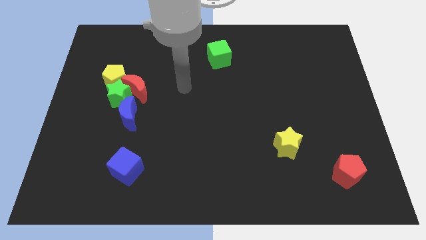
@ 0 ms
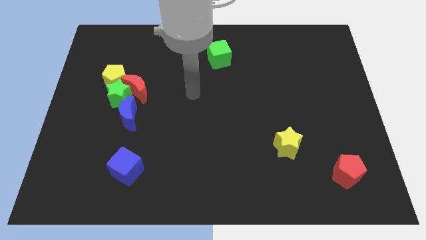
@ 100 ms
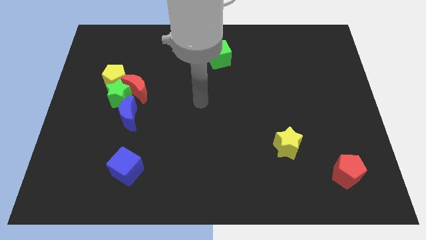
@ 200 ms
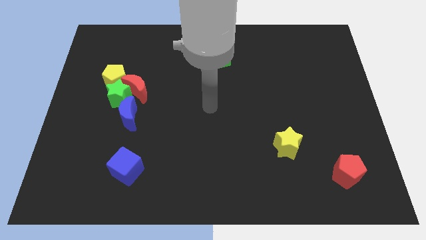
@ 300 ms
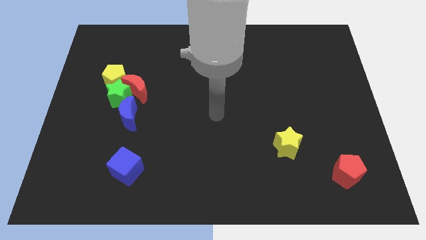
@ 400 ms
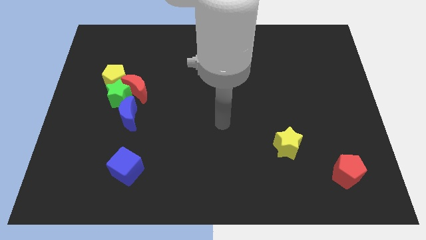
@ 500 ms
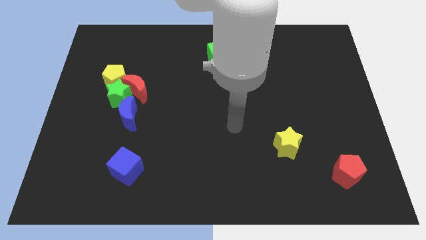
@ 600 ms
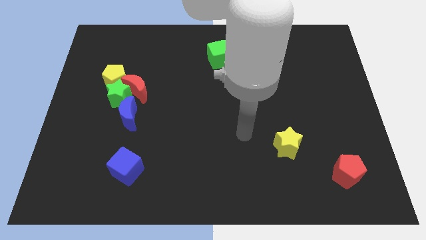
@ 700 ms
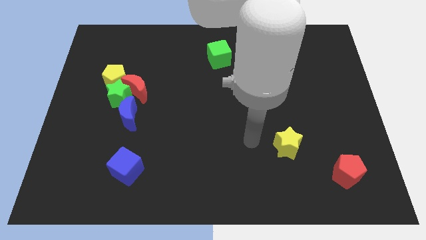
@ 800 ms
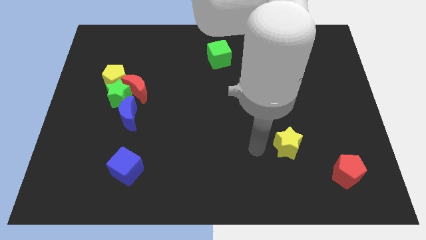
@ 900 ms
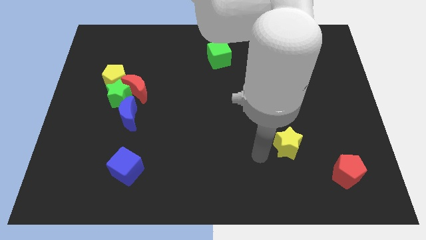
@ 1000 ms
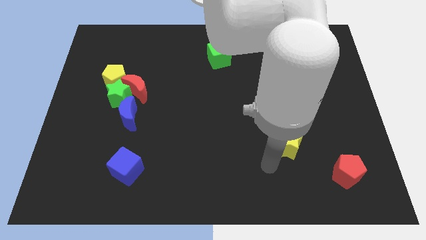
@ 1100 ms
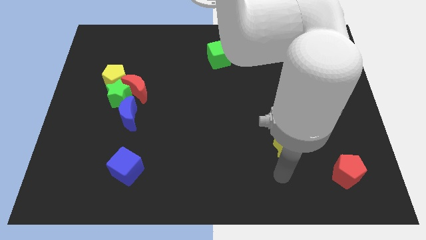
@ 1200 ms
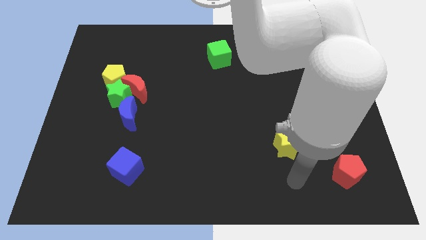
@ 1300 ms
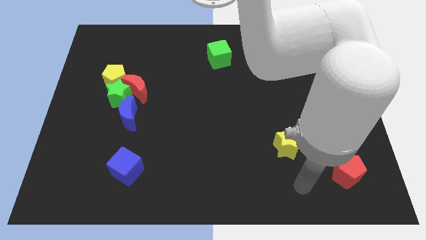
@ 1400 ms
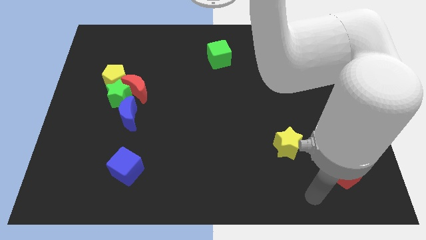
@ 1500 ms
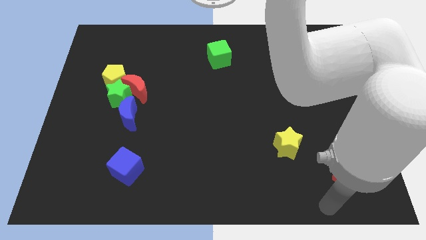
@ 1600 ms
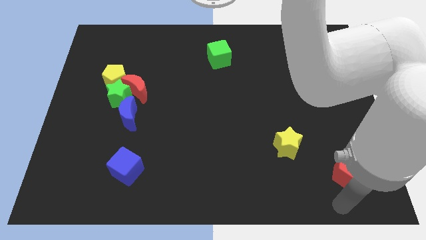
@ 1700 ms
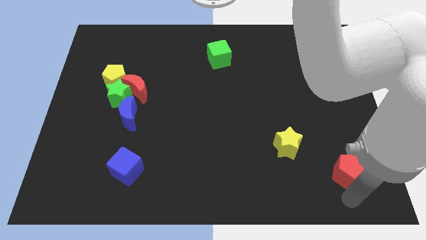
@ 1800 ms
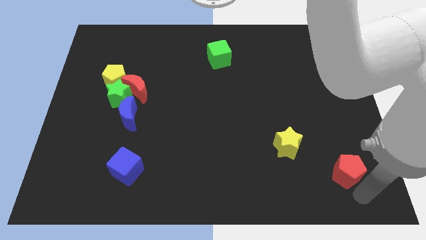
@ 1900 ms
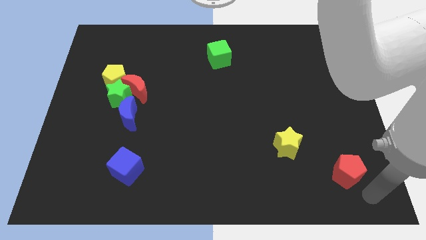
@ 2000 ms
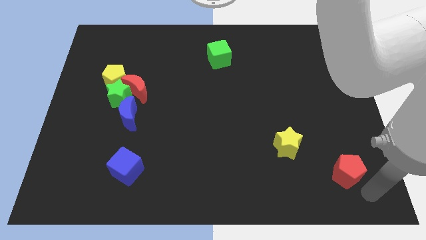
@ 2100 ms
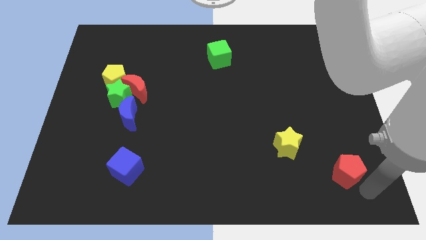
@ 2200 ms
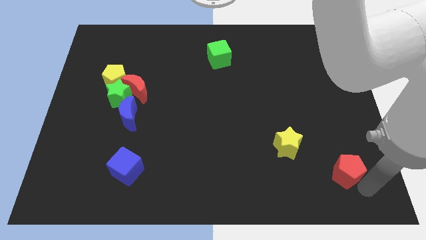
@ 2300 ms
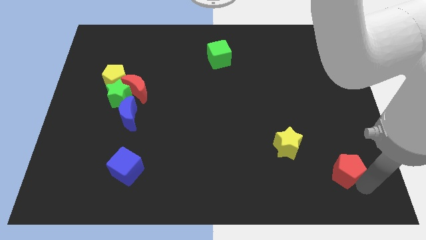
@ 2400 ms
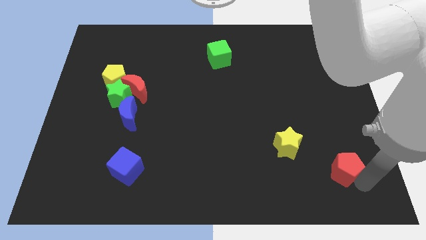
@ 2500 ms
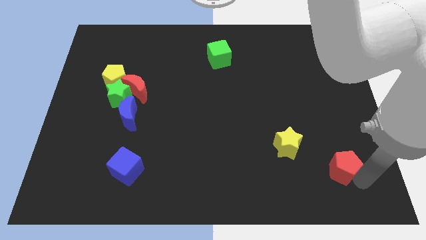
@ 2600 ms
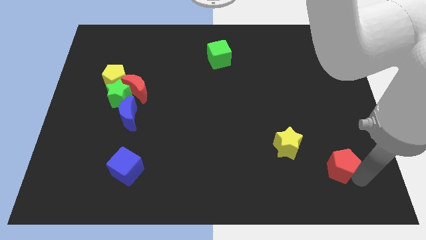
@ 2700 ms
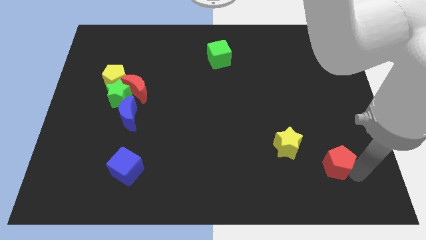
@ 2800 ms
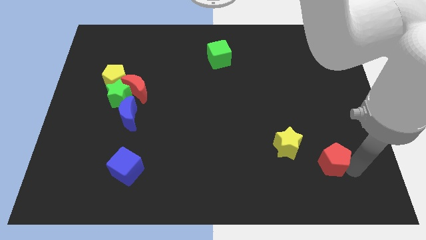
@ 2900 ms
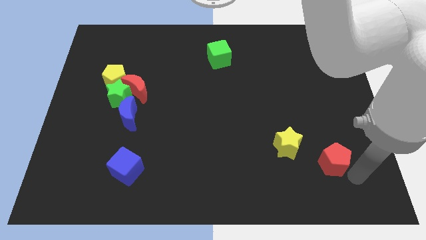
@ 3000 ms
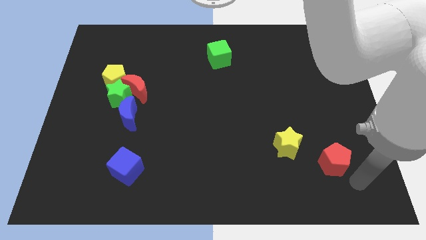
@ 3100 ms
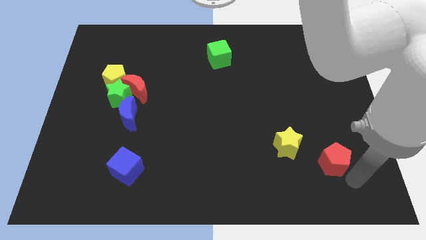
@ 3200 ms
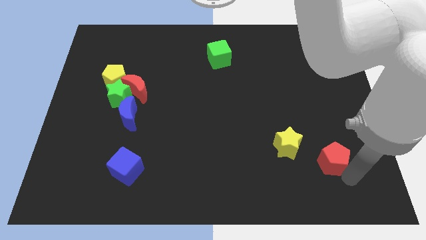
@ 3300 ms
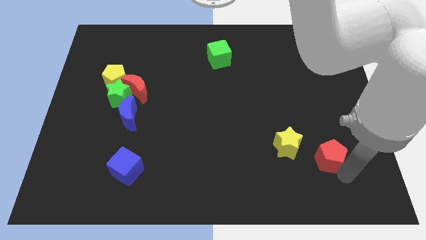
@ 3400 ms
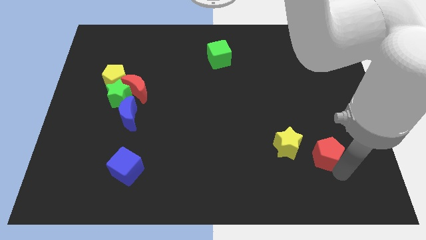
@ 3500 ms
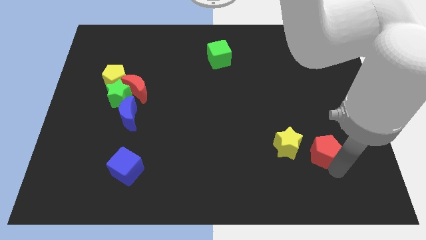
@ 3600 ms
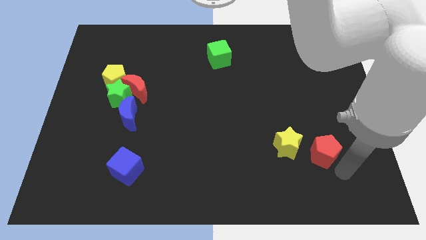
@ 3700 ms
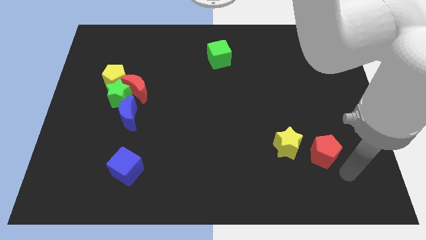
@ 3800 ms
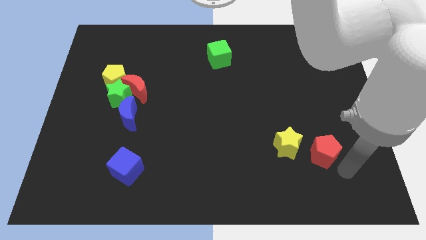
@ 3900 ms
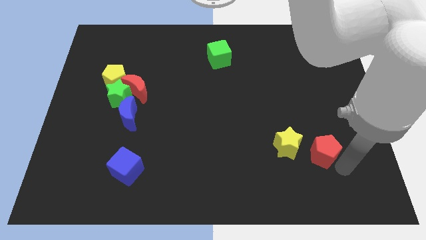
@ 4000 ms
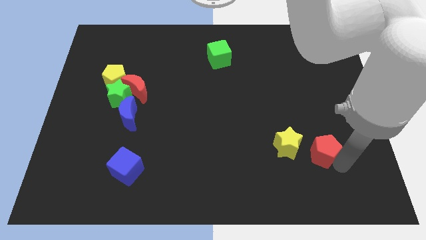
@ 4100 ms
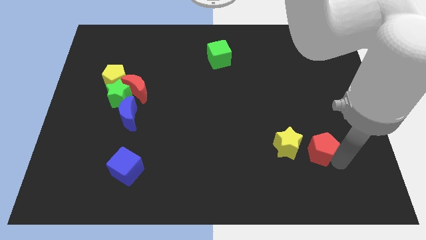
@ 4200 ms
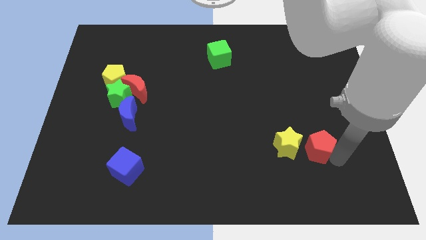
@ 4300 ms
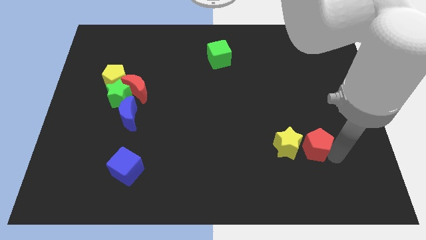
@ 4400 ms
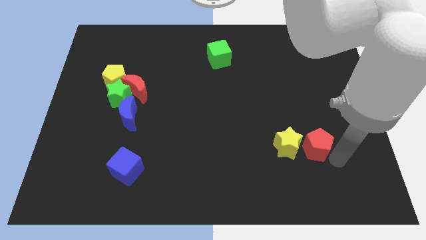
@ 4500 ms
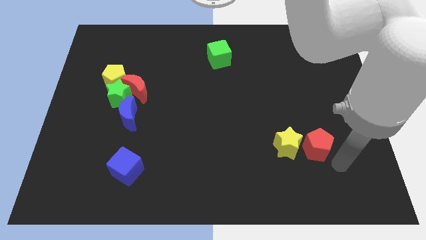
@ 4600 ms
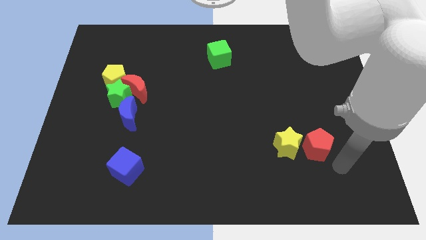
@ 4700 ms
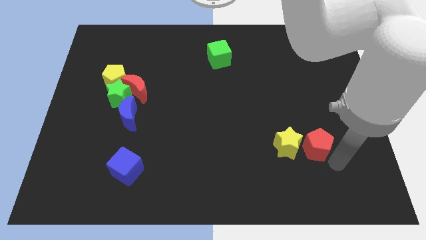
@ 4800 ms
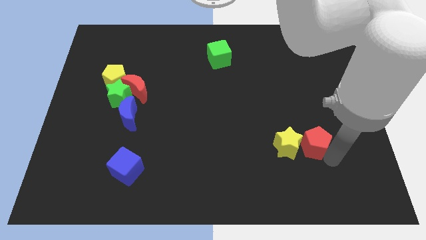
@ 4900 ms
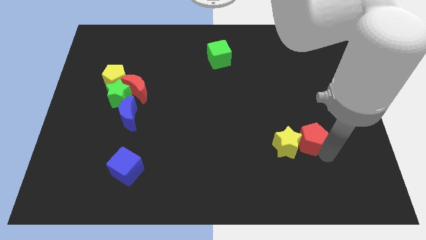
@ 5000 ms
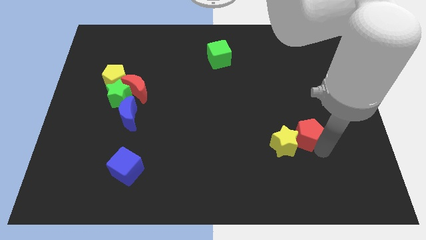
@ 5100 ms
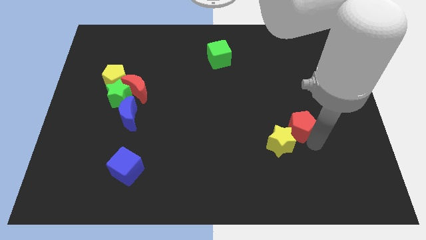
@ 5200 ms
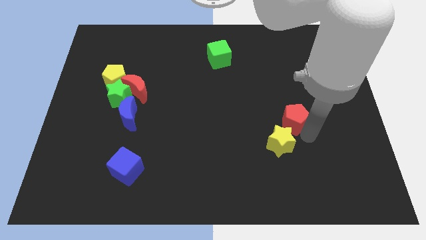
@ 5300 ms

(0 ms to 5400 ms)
slide the red pentagon above the yellow star

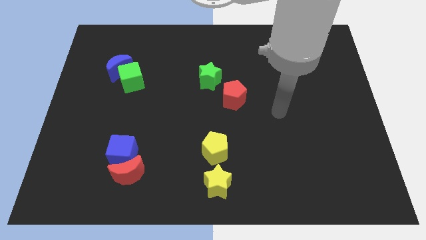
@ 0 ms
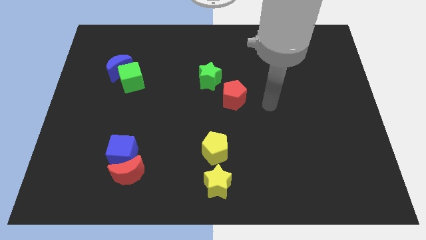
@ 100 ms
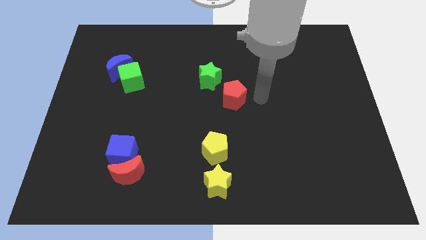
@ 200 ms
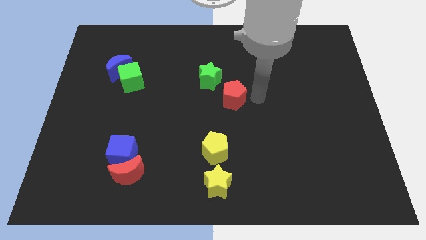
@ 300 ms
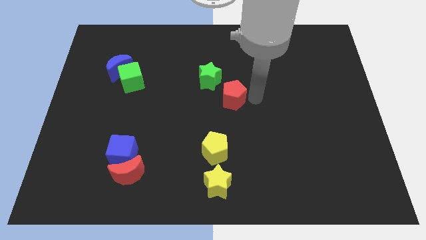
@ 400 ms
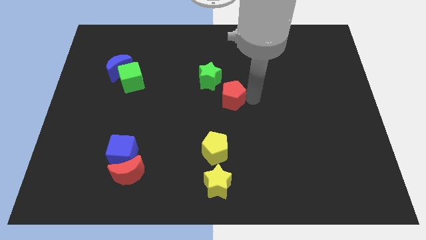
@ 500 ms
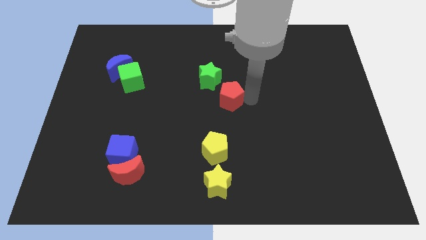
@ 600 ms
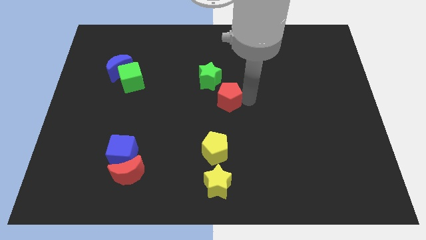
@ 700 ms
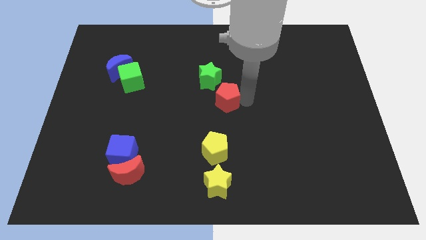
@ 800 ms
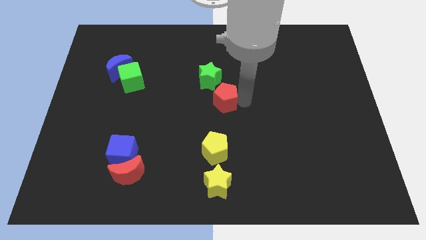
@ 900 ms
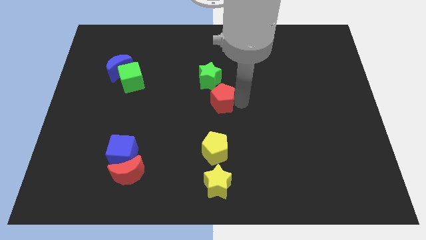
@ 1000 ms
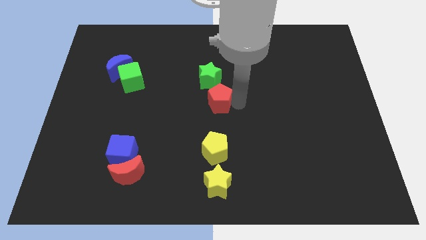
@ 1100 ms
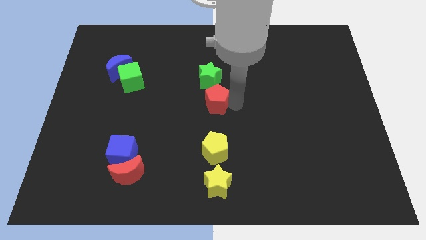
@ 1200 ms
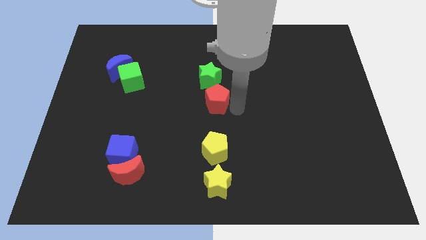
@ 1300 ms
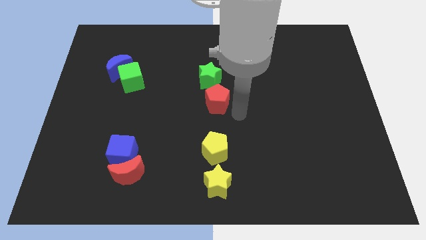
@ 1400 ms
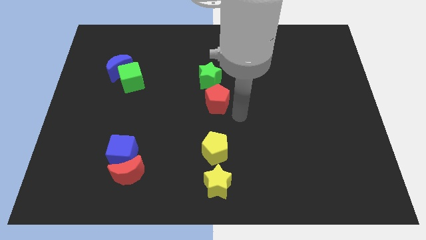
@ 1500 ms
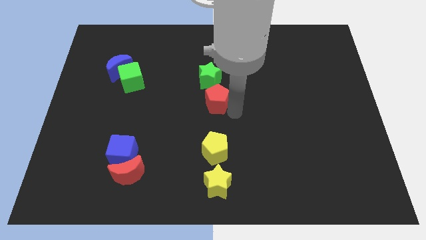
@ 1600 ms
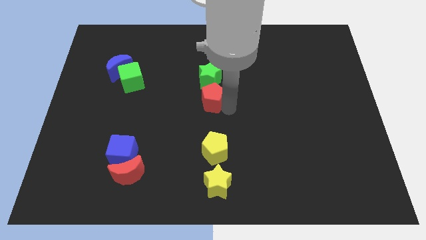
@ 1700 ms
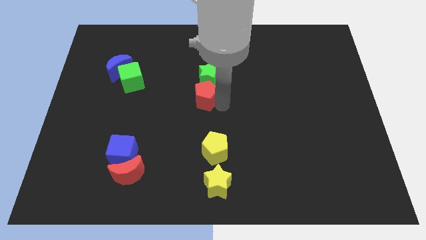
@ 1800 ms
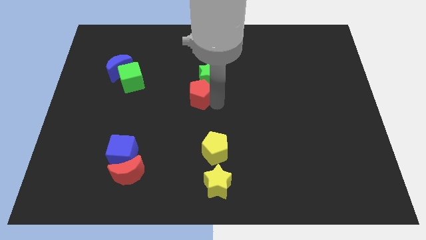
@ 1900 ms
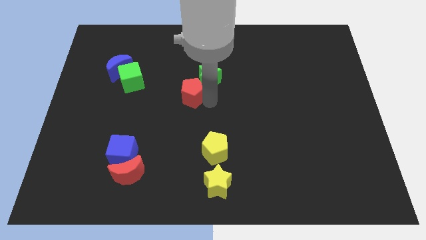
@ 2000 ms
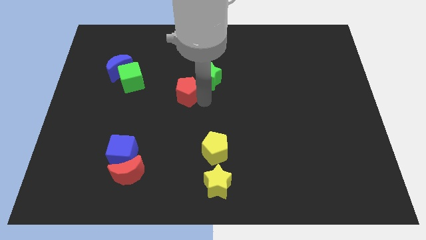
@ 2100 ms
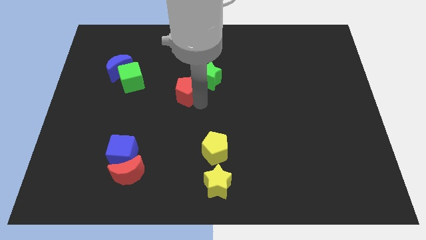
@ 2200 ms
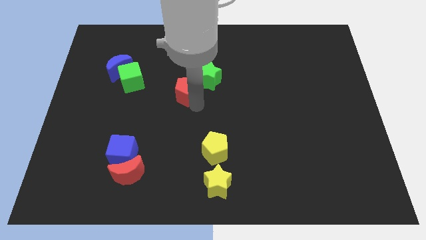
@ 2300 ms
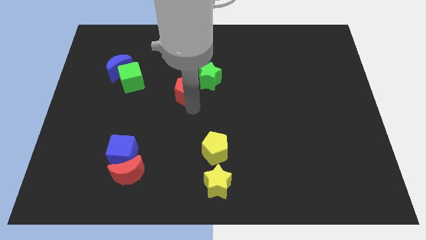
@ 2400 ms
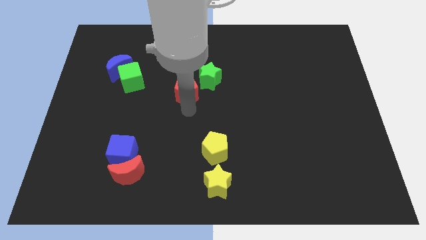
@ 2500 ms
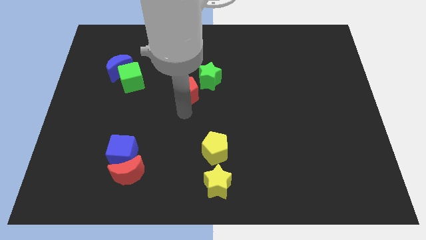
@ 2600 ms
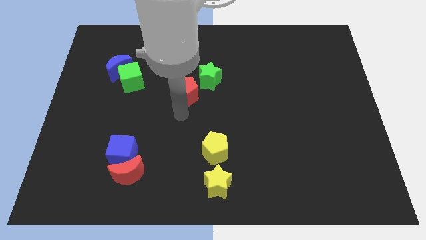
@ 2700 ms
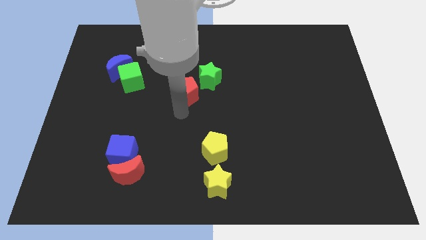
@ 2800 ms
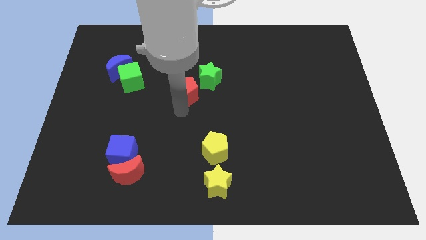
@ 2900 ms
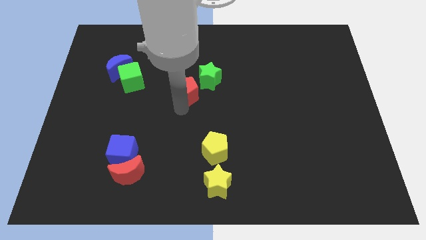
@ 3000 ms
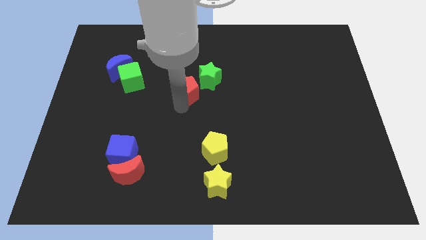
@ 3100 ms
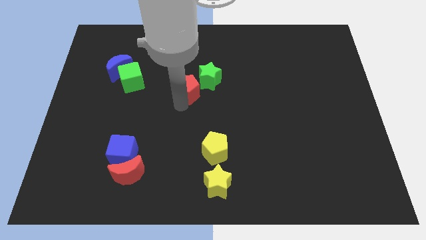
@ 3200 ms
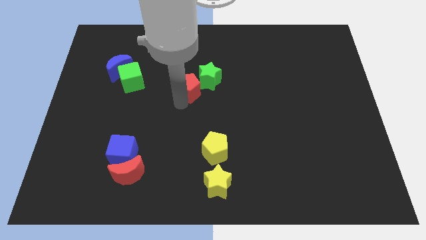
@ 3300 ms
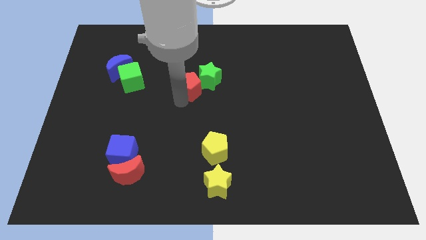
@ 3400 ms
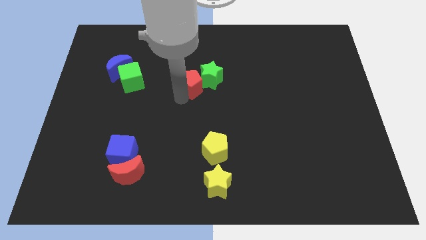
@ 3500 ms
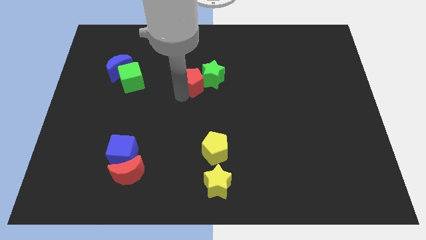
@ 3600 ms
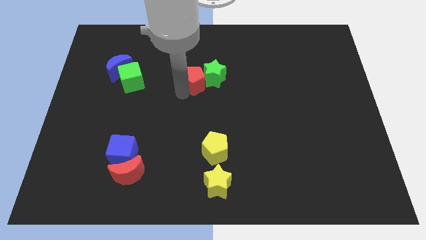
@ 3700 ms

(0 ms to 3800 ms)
put the red pentagon to the top left of the green star
